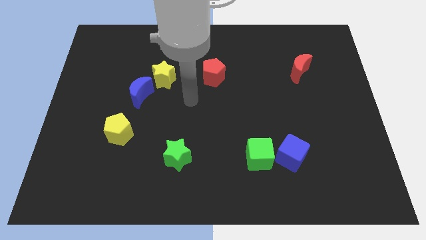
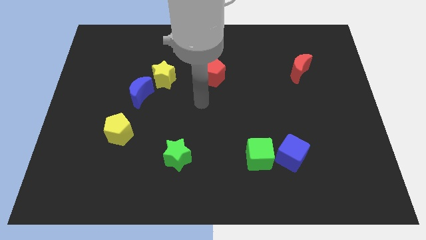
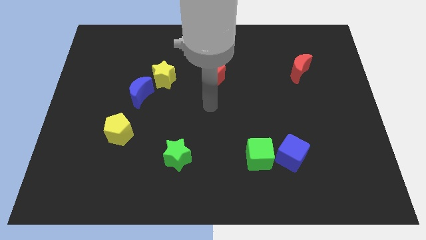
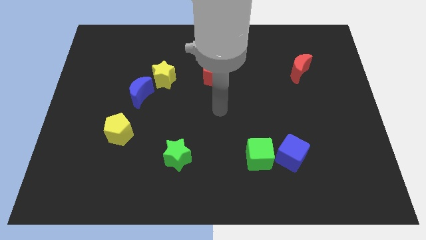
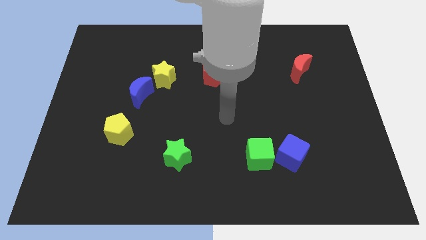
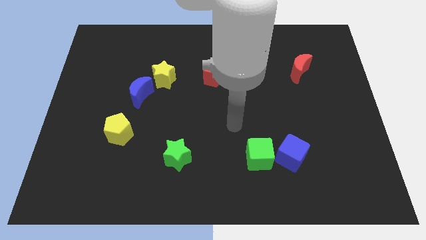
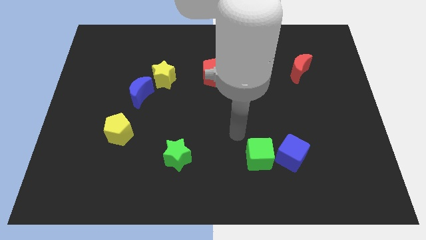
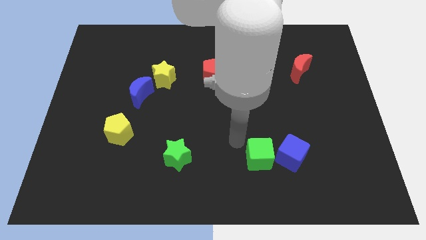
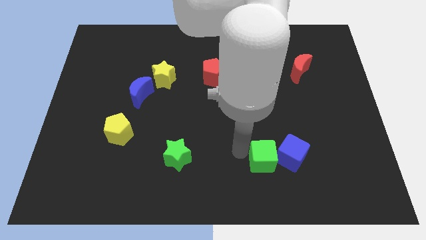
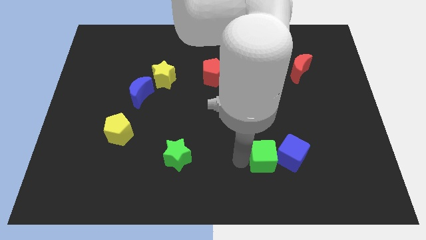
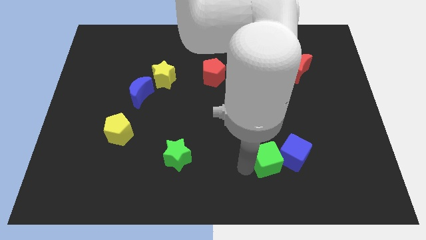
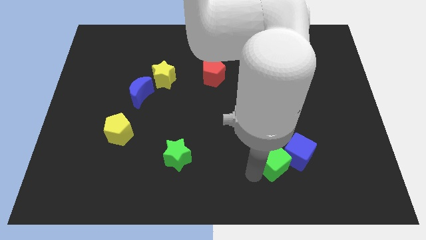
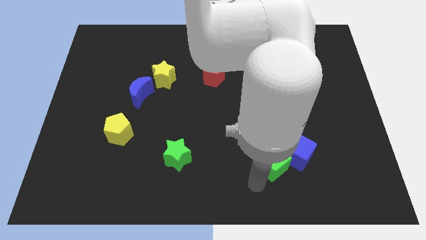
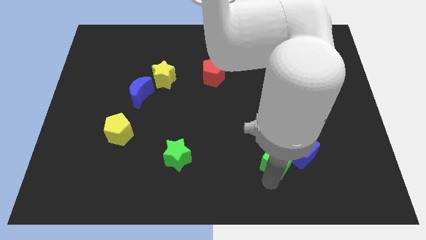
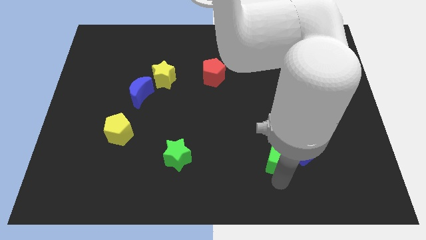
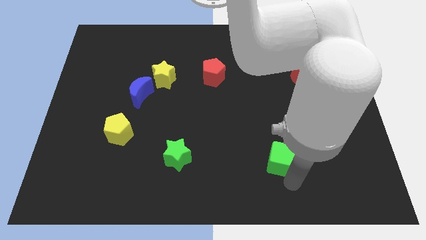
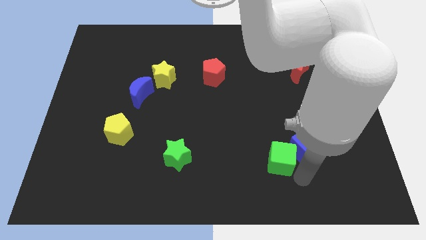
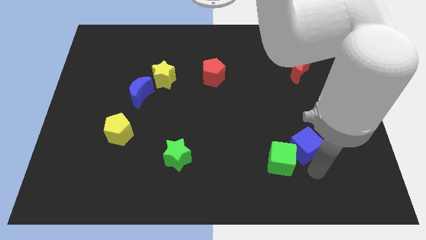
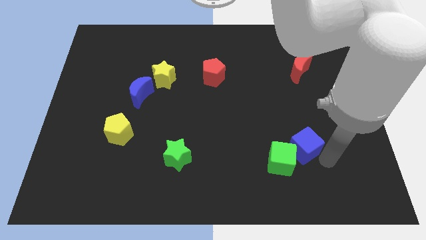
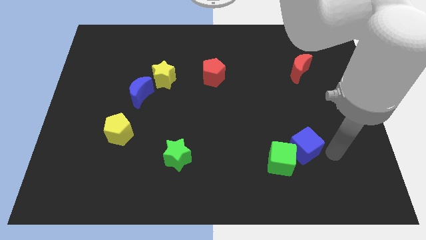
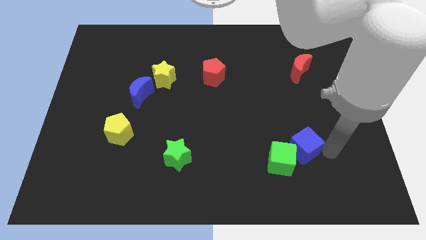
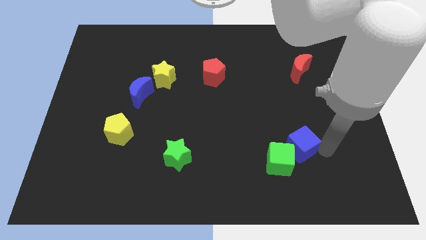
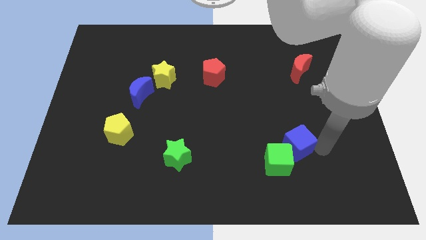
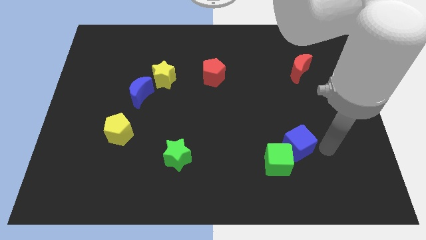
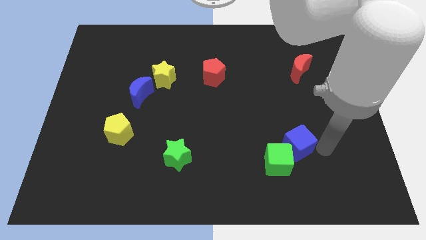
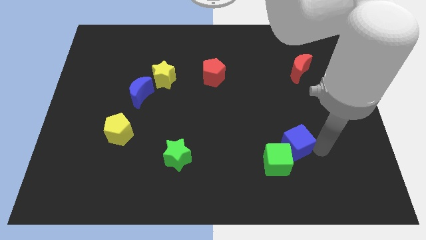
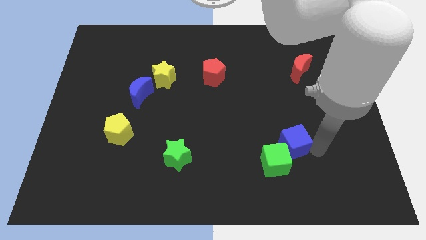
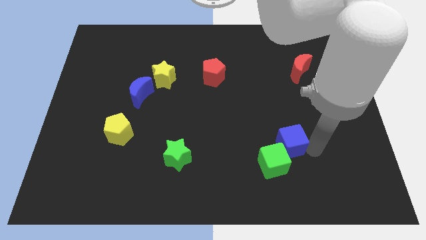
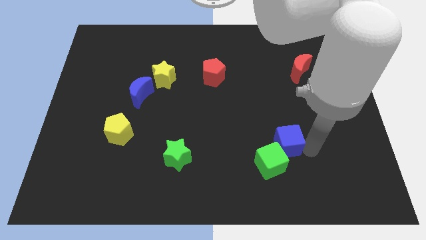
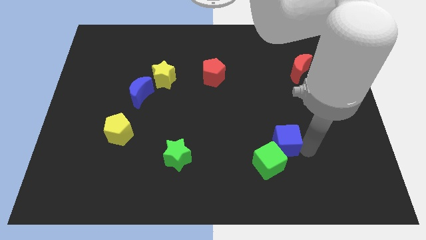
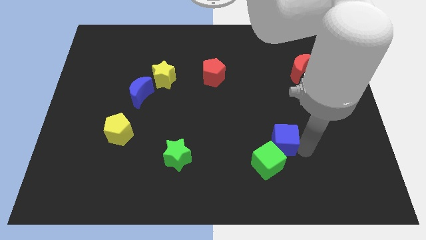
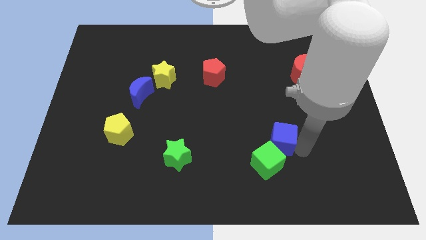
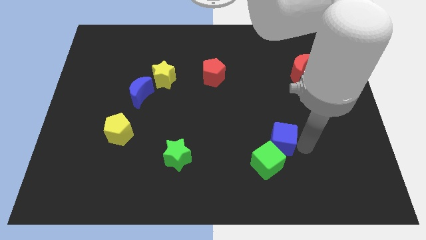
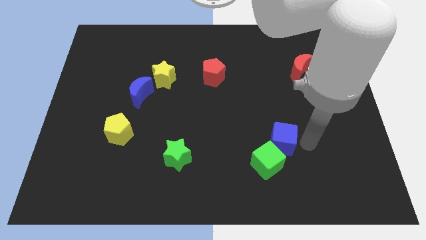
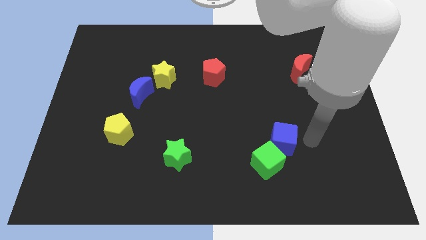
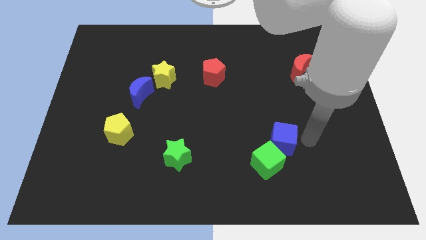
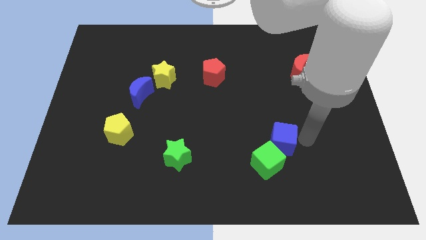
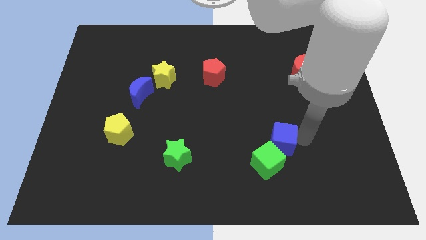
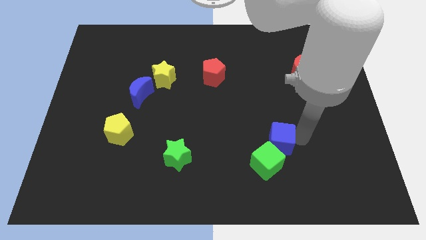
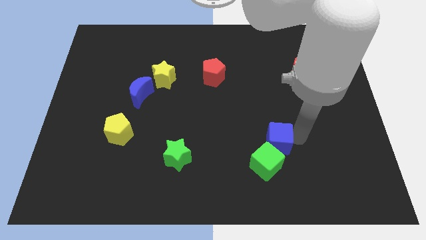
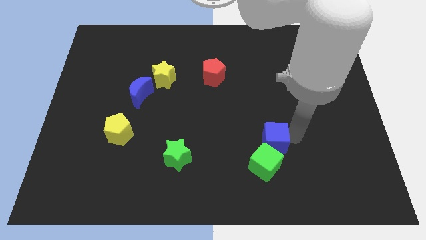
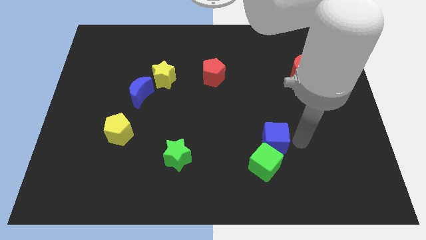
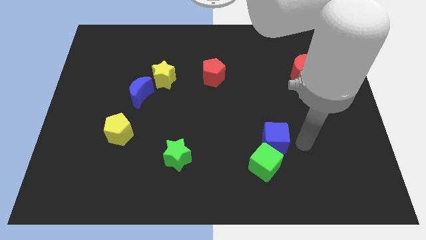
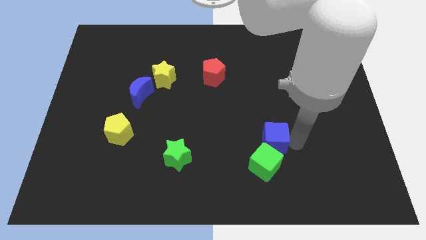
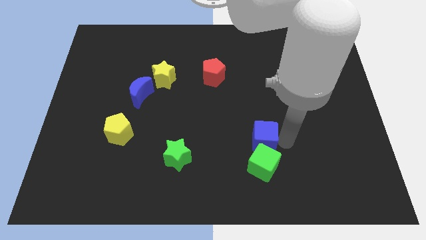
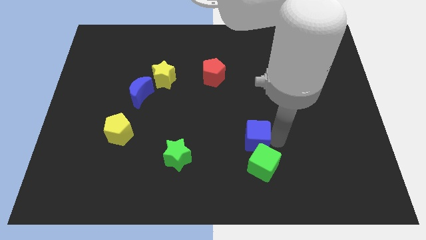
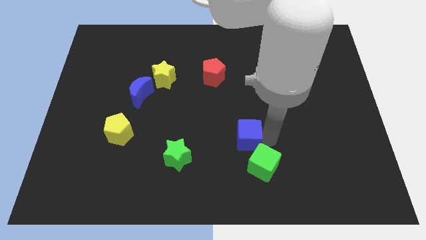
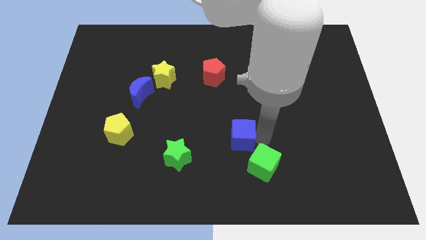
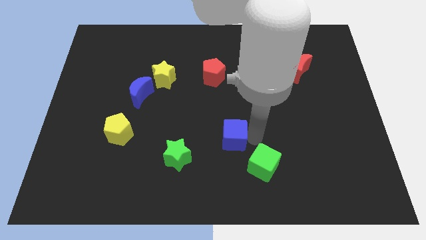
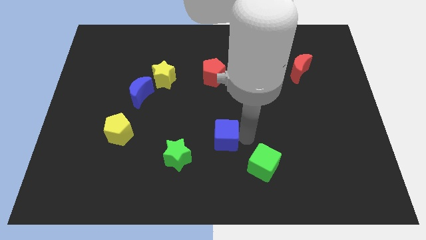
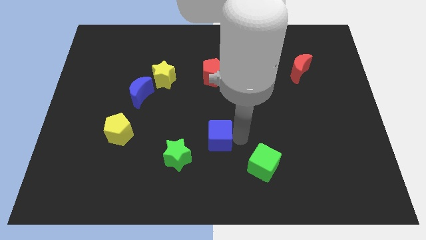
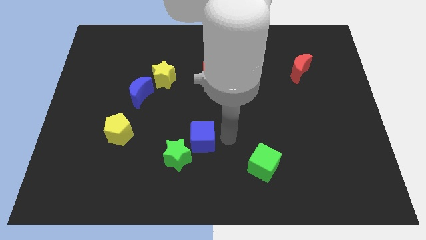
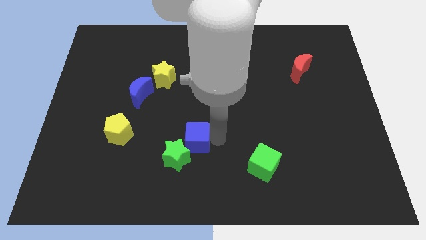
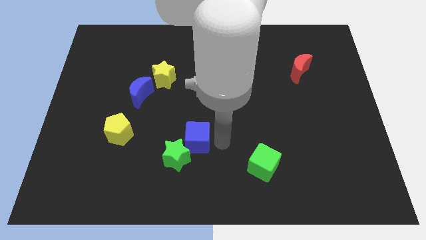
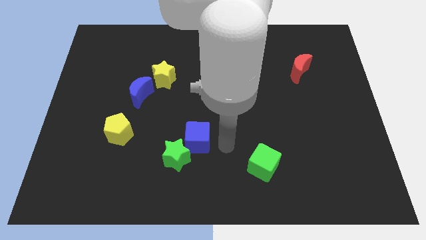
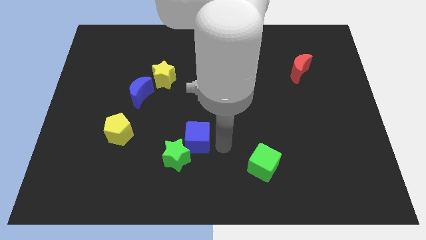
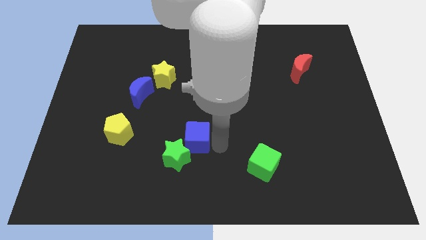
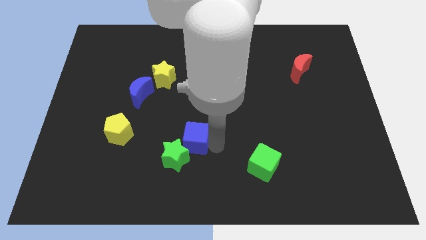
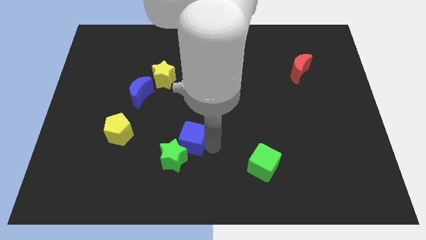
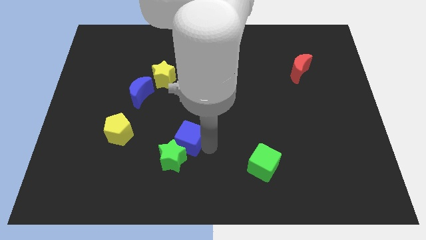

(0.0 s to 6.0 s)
put the blue cube right of the yellow pentagon

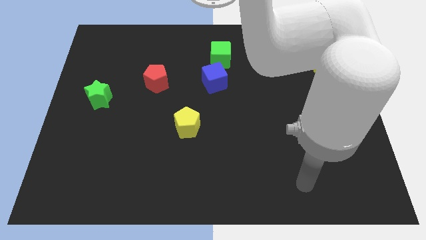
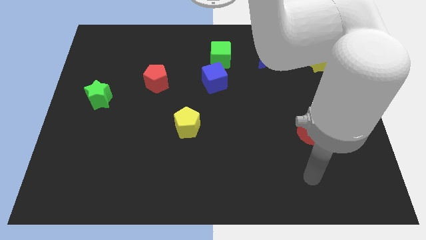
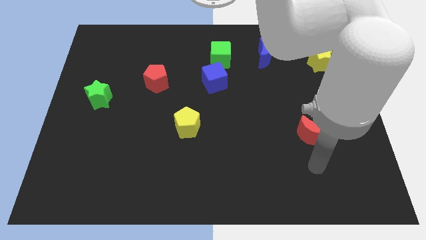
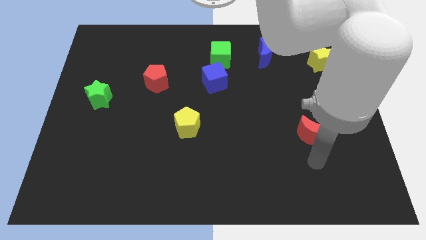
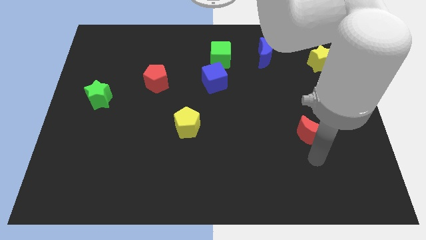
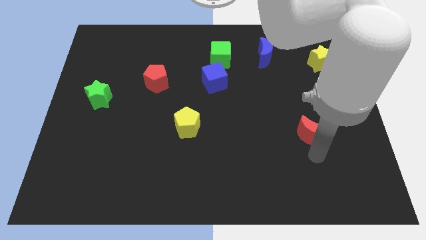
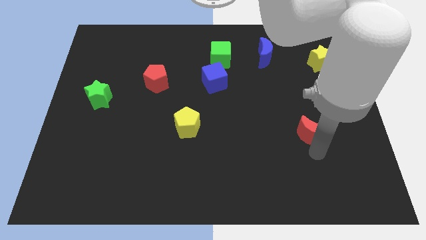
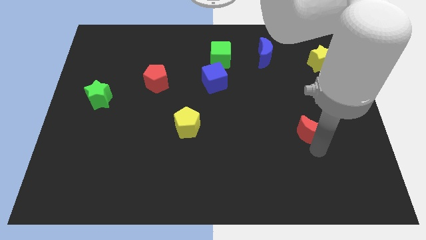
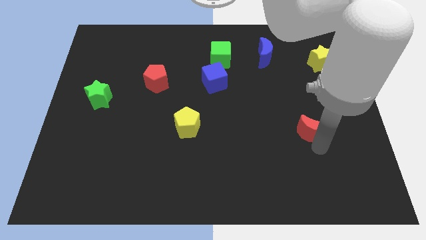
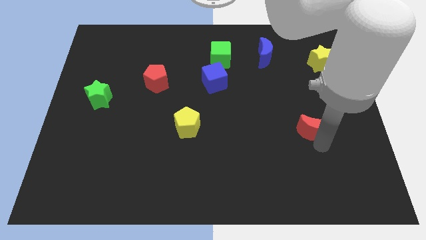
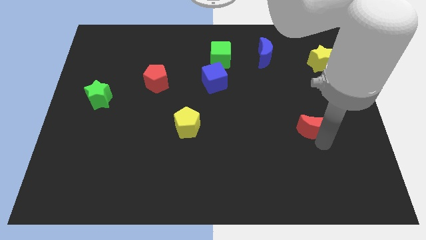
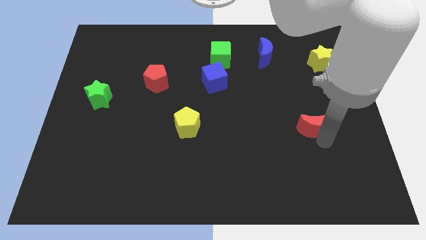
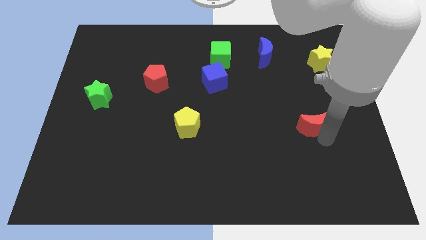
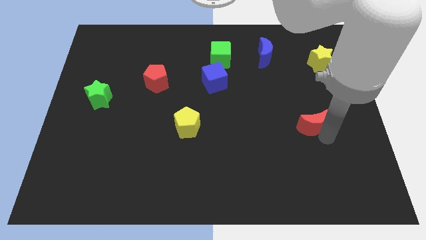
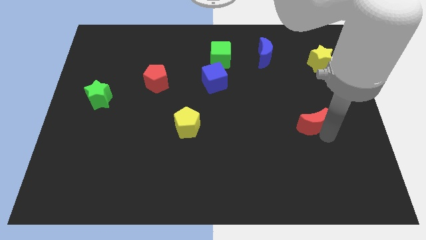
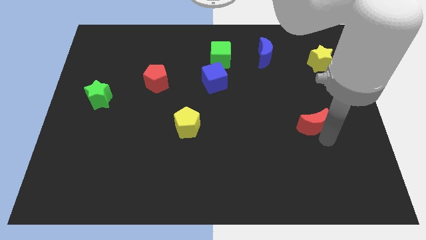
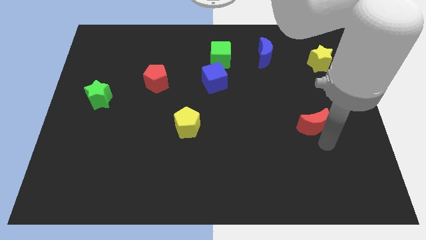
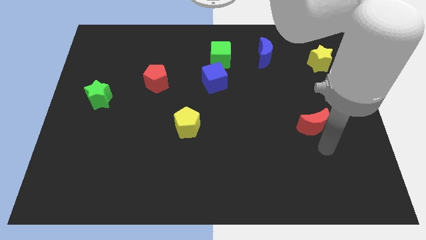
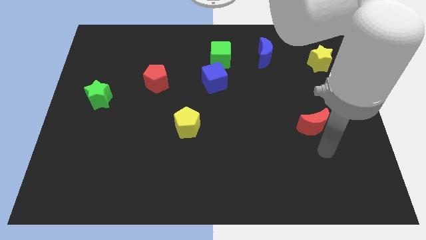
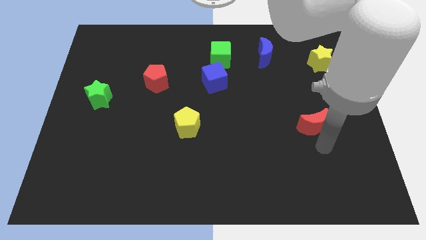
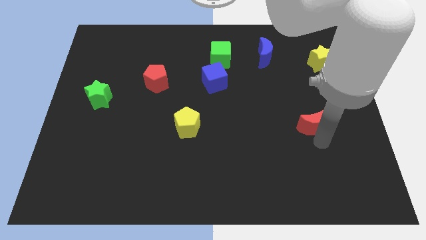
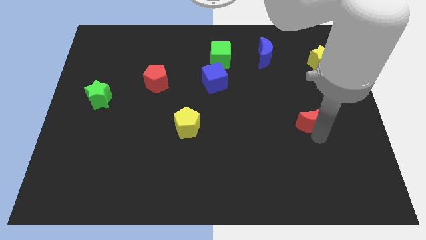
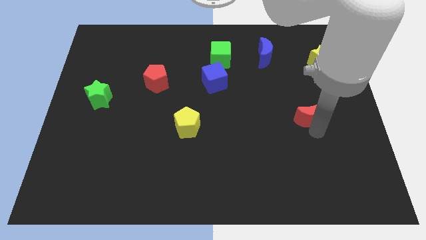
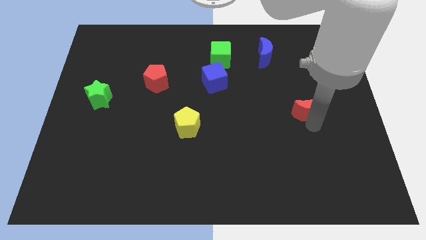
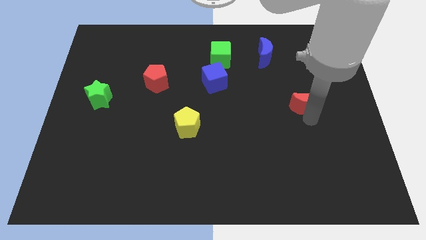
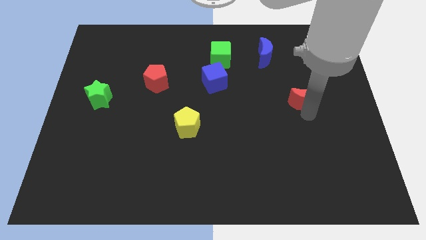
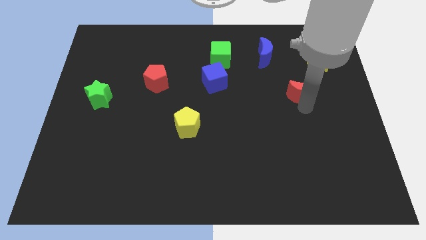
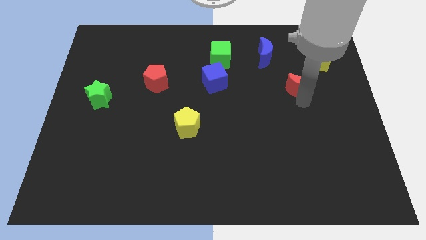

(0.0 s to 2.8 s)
slide the red moon to the bottom left side of the yellow star
